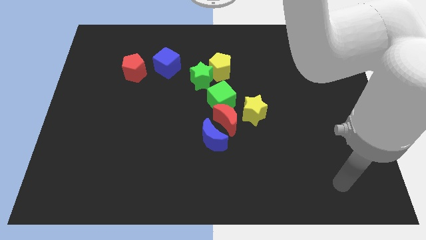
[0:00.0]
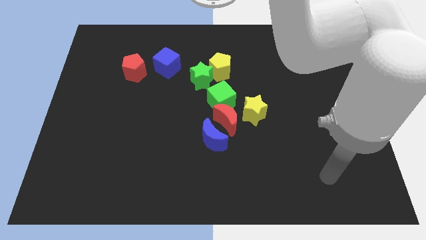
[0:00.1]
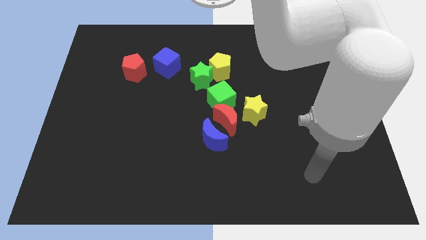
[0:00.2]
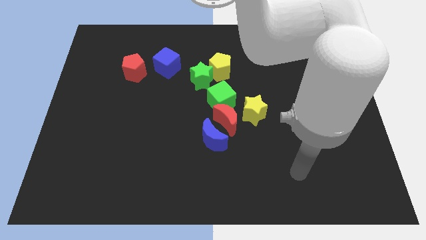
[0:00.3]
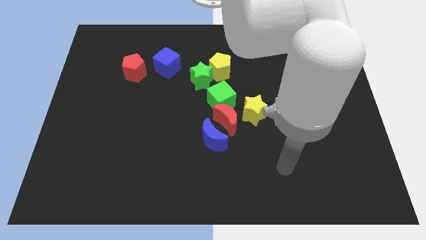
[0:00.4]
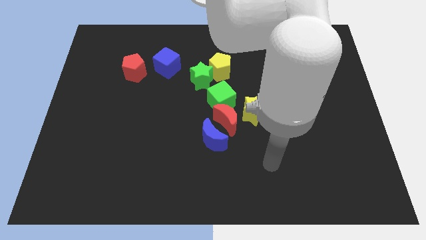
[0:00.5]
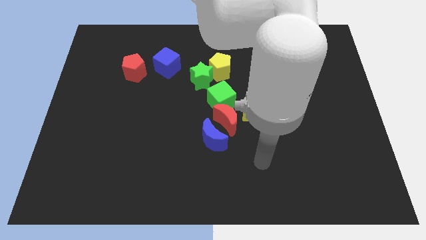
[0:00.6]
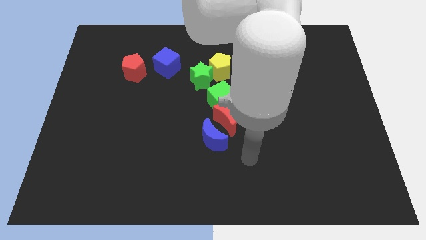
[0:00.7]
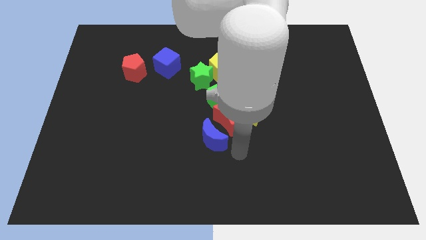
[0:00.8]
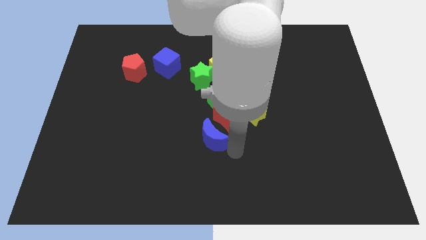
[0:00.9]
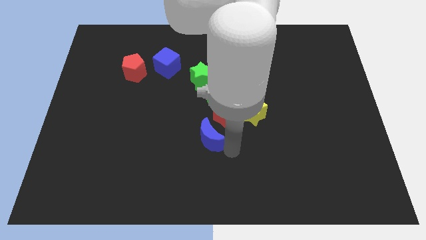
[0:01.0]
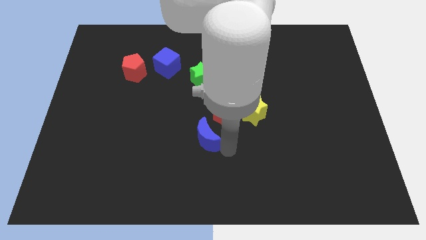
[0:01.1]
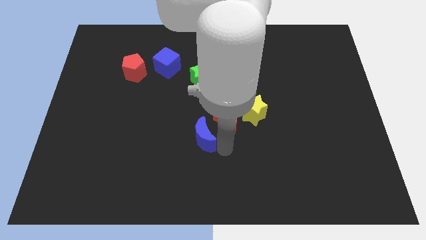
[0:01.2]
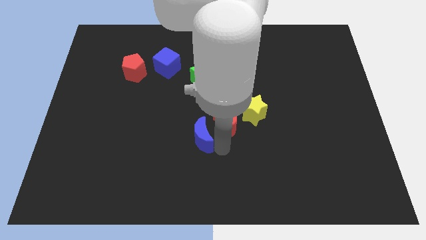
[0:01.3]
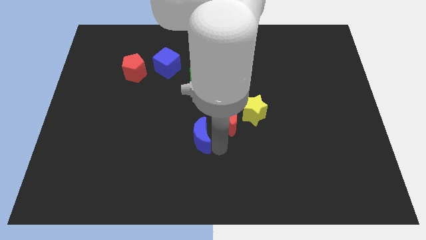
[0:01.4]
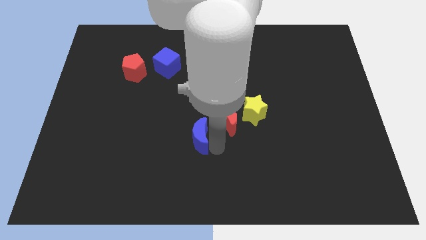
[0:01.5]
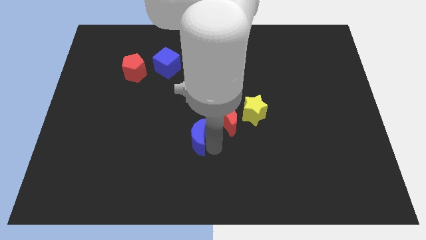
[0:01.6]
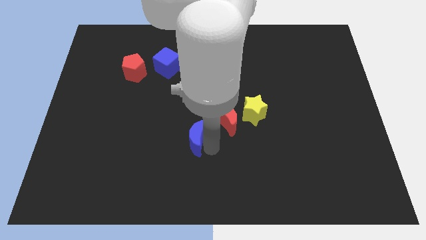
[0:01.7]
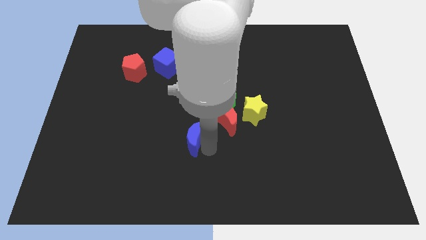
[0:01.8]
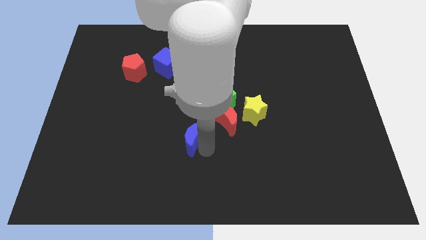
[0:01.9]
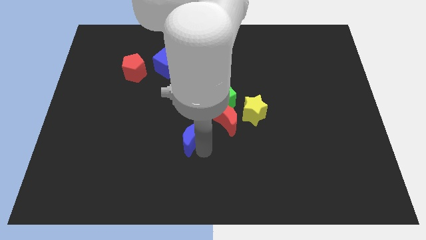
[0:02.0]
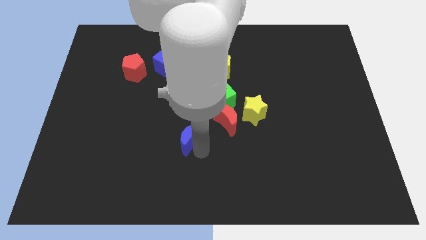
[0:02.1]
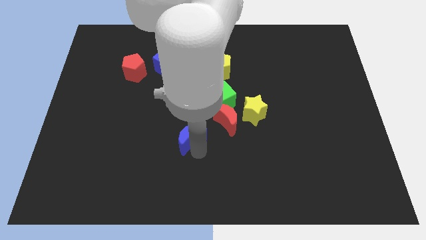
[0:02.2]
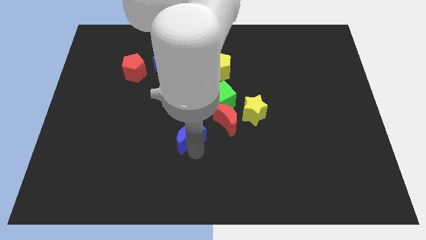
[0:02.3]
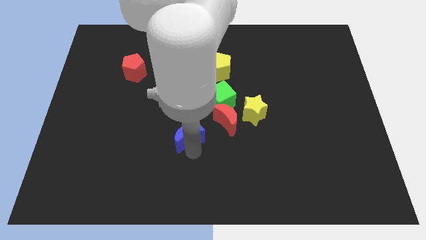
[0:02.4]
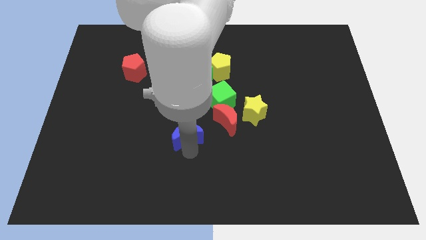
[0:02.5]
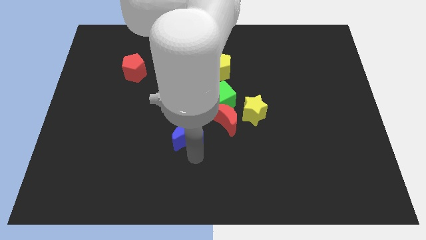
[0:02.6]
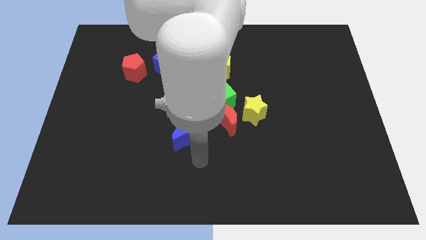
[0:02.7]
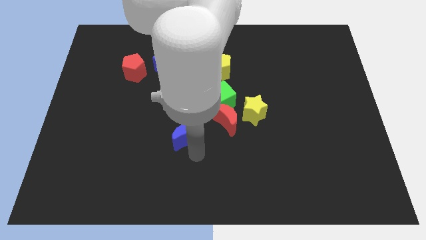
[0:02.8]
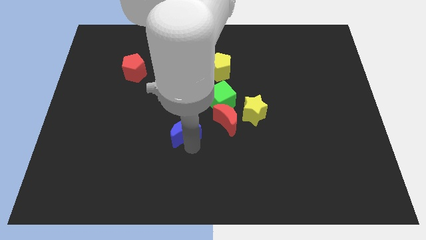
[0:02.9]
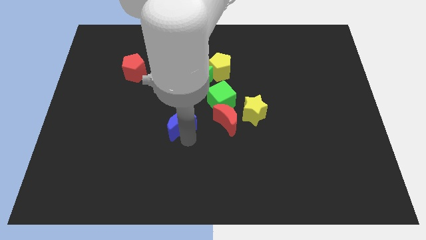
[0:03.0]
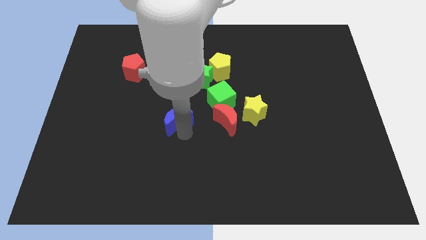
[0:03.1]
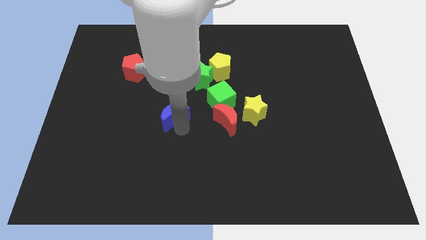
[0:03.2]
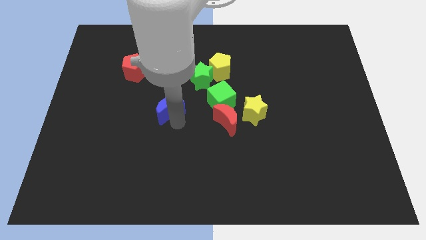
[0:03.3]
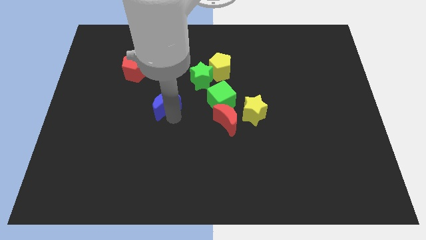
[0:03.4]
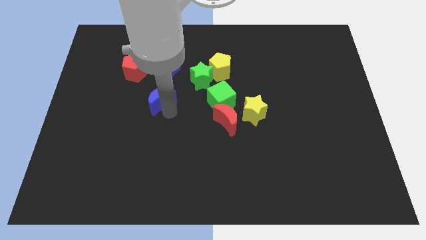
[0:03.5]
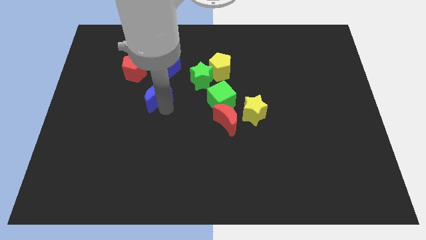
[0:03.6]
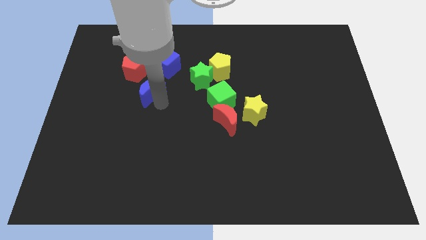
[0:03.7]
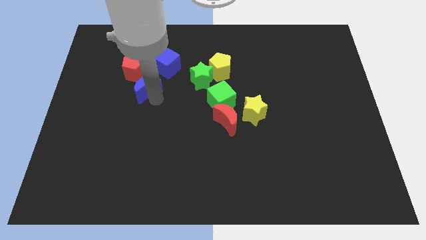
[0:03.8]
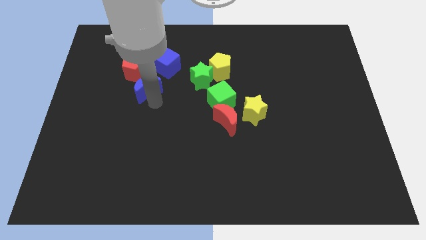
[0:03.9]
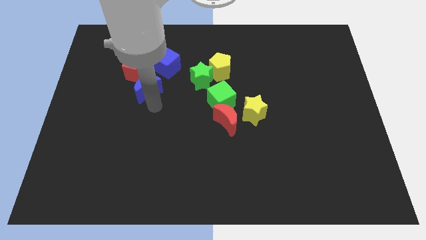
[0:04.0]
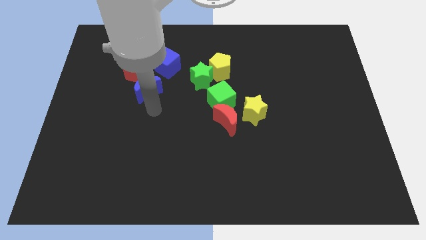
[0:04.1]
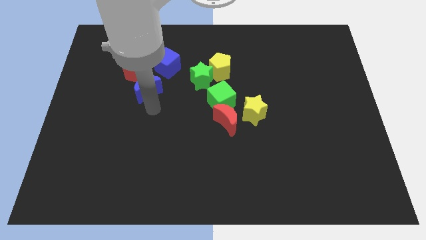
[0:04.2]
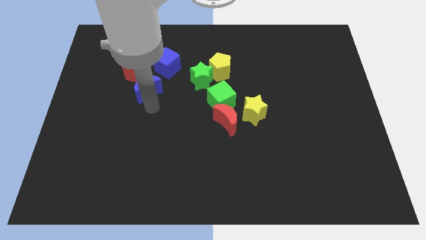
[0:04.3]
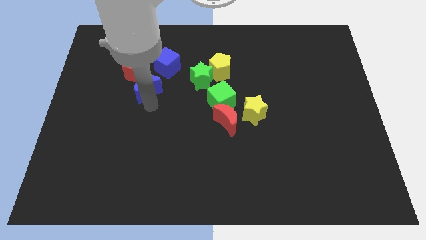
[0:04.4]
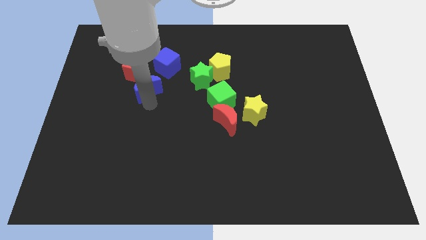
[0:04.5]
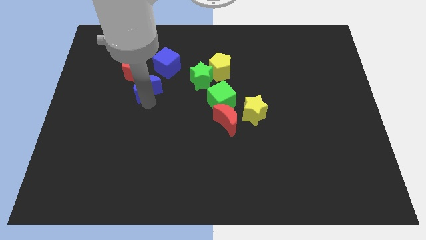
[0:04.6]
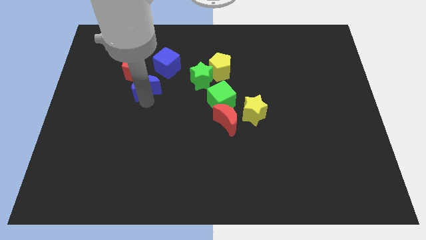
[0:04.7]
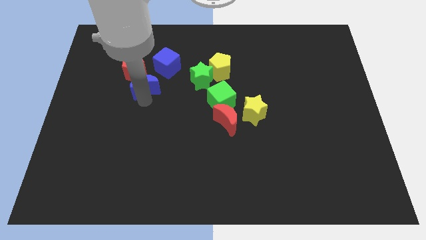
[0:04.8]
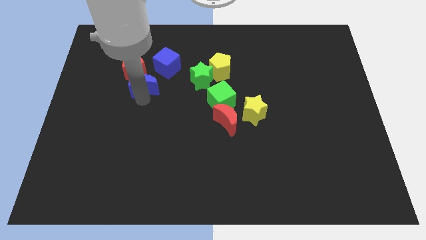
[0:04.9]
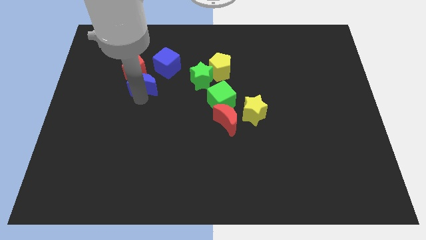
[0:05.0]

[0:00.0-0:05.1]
put the blue moon next to the red pentagon

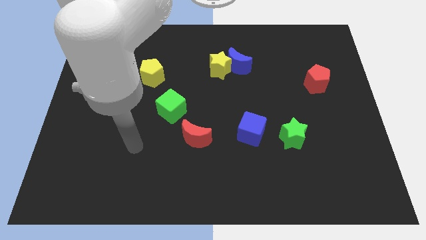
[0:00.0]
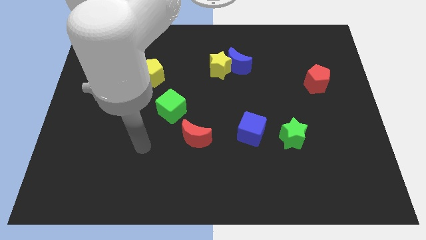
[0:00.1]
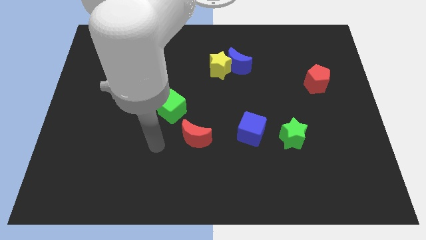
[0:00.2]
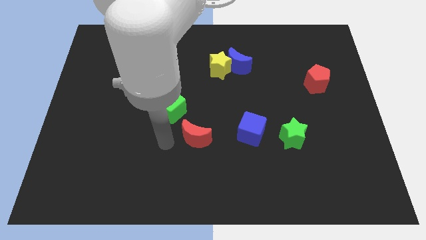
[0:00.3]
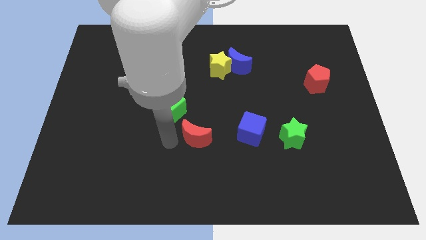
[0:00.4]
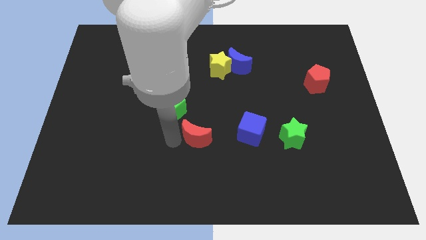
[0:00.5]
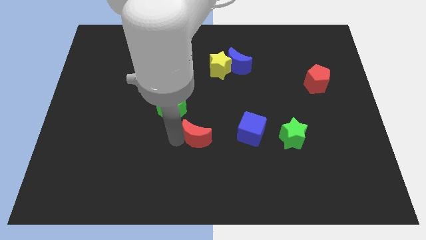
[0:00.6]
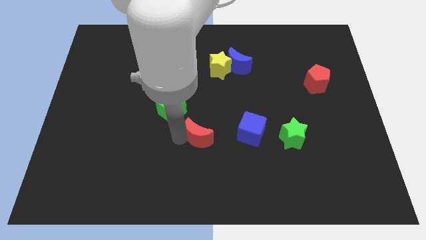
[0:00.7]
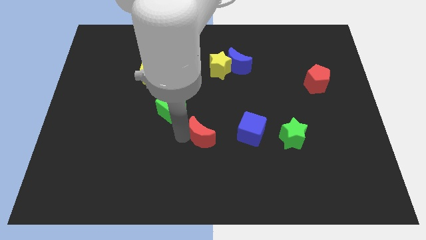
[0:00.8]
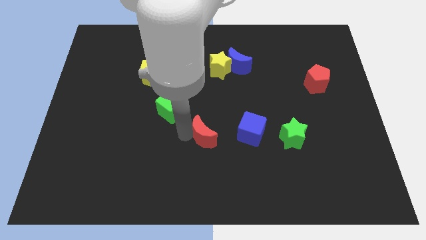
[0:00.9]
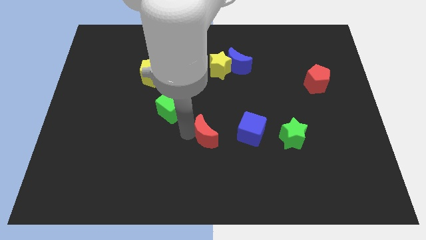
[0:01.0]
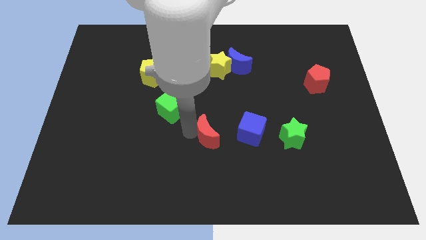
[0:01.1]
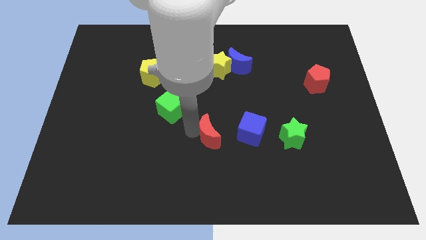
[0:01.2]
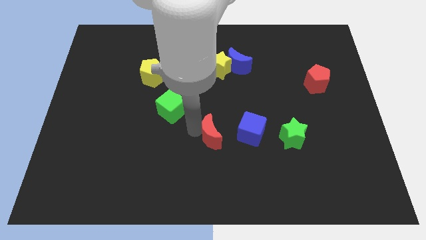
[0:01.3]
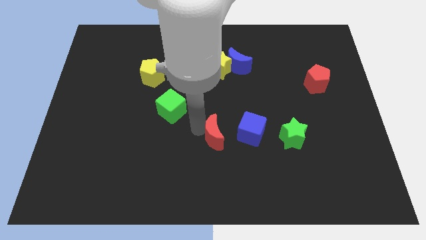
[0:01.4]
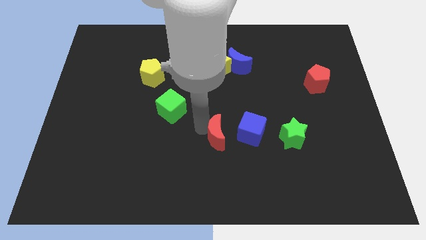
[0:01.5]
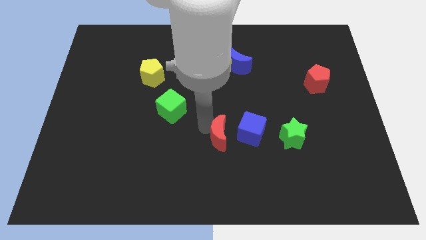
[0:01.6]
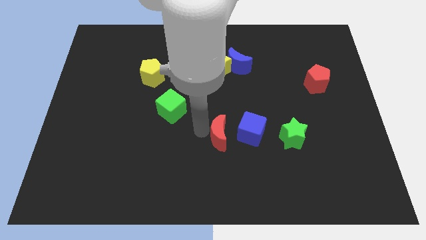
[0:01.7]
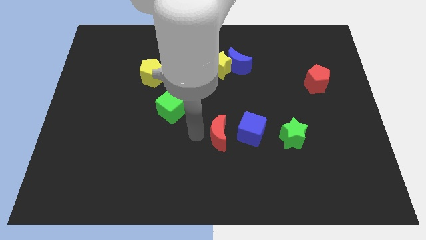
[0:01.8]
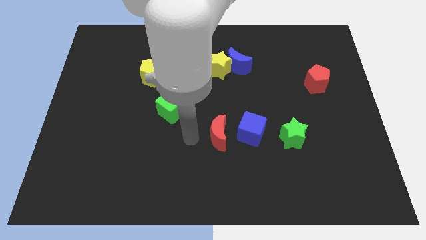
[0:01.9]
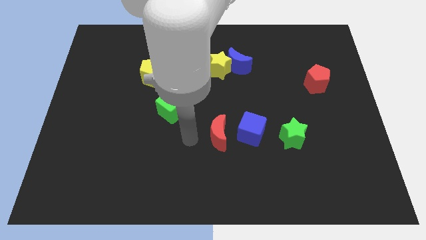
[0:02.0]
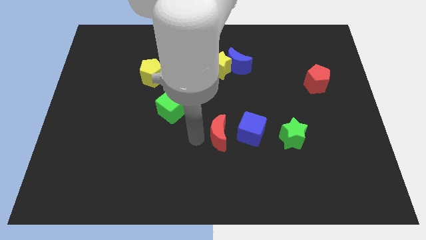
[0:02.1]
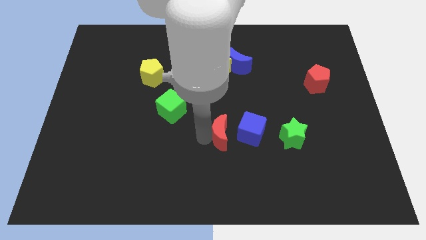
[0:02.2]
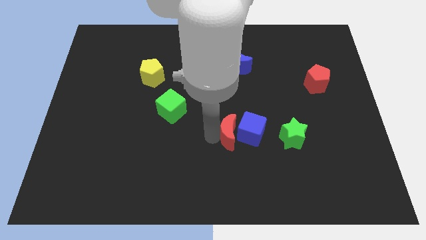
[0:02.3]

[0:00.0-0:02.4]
slide the red moon to the blue cube
